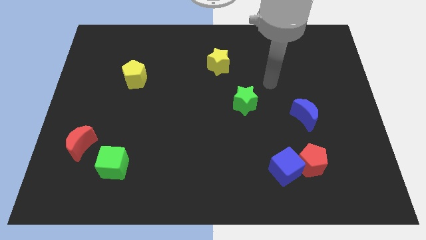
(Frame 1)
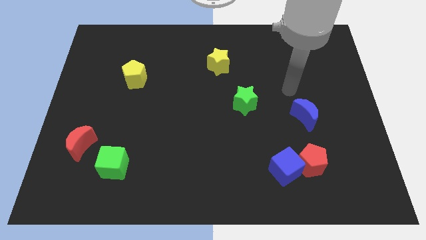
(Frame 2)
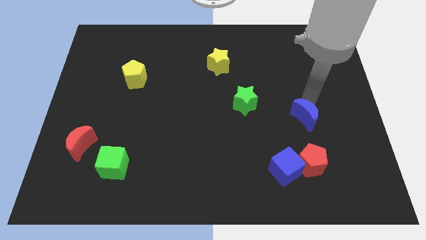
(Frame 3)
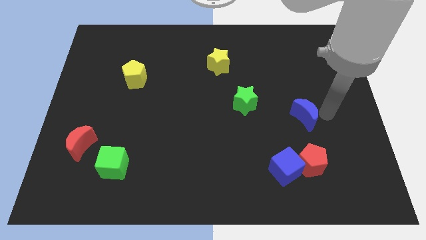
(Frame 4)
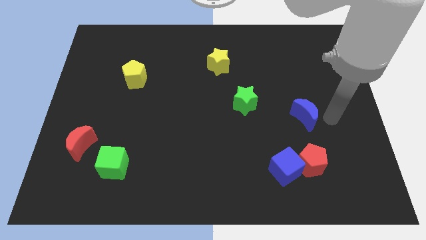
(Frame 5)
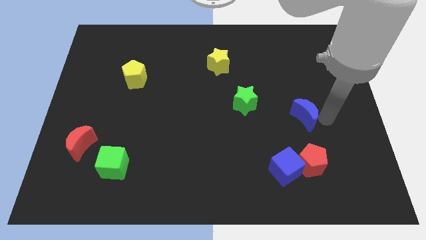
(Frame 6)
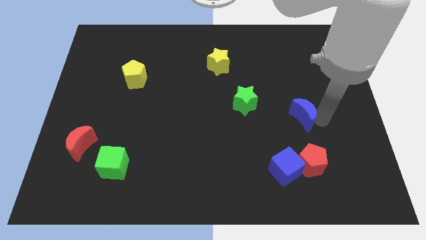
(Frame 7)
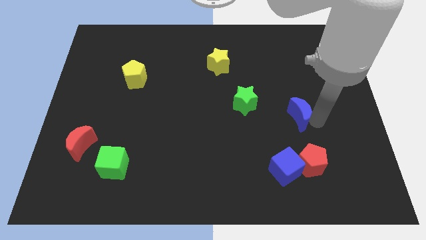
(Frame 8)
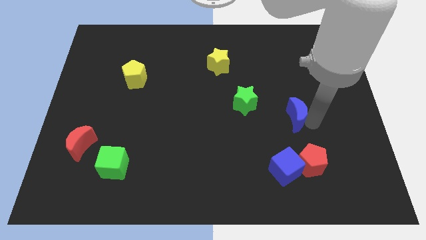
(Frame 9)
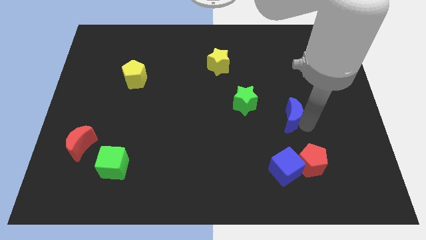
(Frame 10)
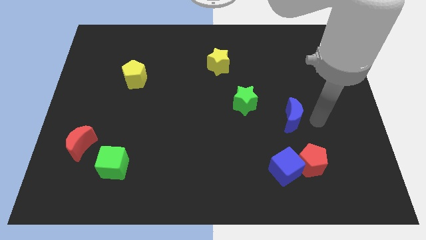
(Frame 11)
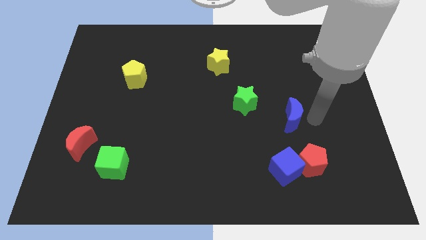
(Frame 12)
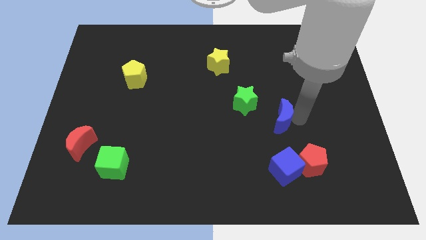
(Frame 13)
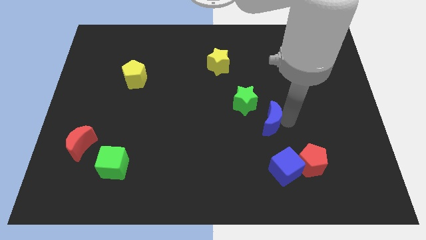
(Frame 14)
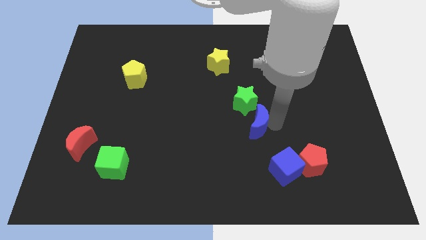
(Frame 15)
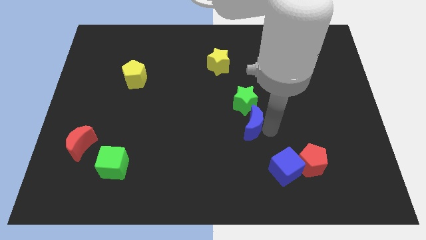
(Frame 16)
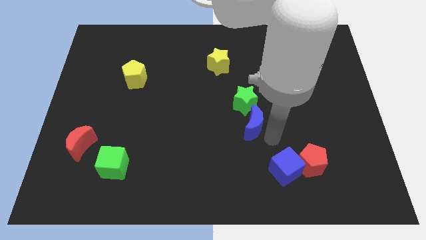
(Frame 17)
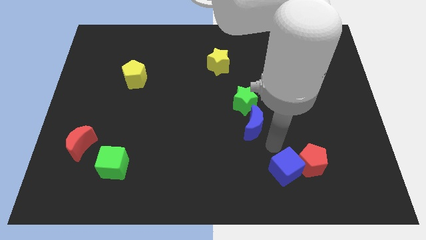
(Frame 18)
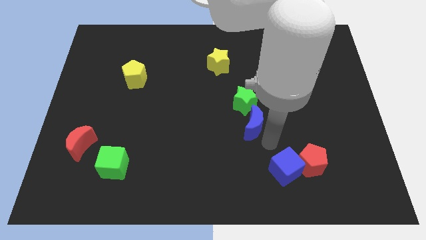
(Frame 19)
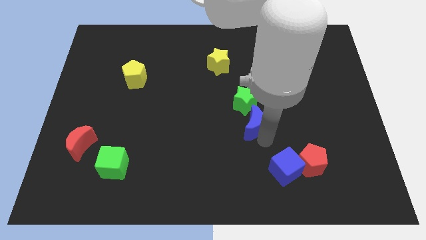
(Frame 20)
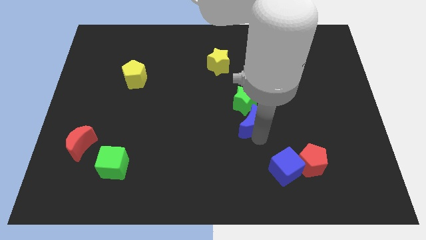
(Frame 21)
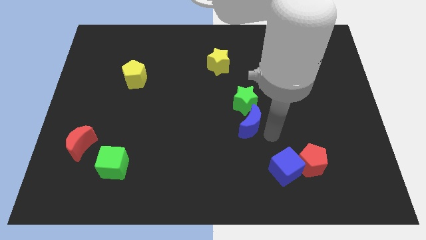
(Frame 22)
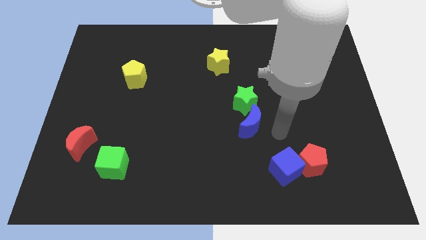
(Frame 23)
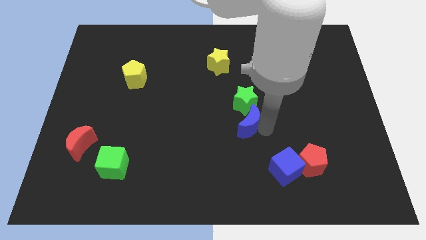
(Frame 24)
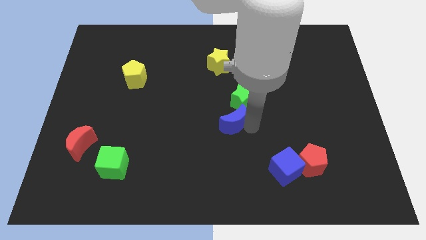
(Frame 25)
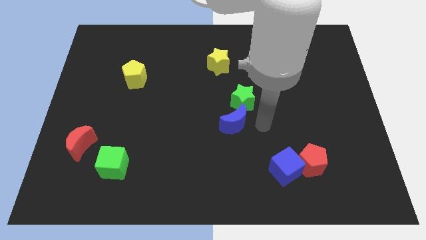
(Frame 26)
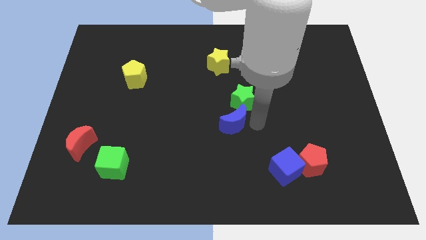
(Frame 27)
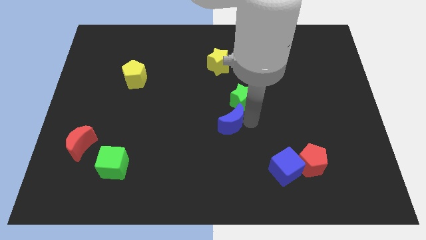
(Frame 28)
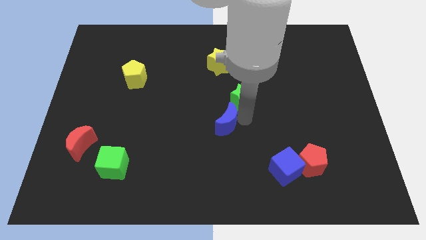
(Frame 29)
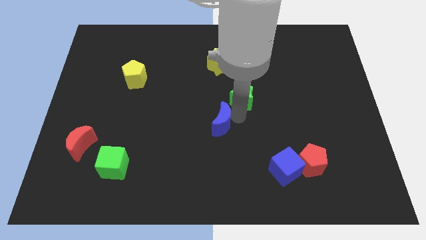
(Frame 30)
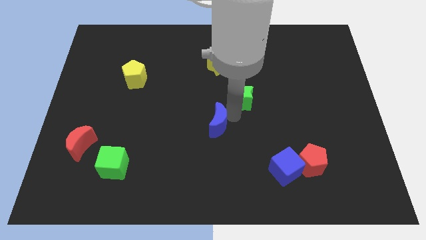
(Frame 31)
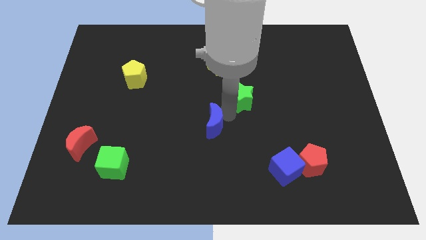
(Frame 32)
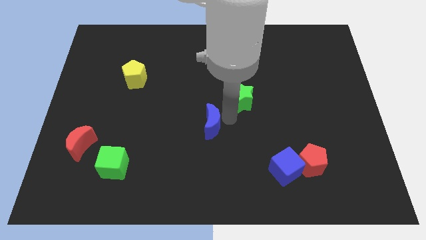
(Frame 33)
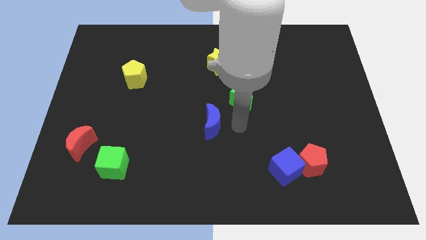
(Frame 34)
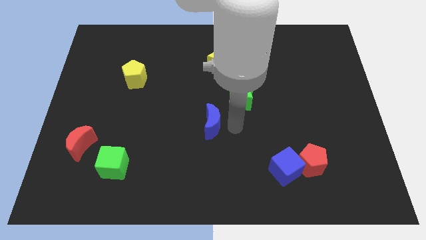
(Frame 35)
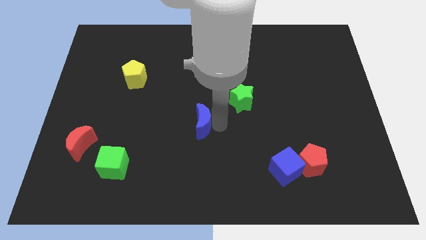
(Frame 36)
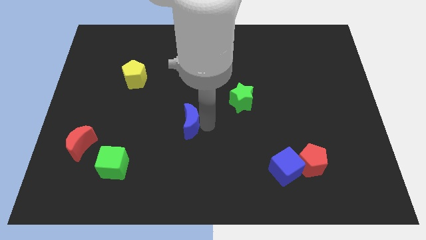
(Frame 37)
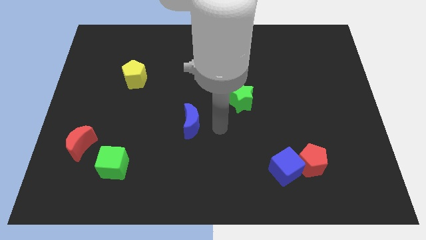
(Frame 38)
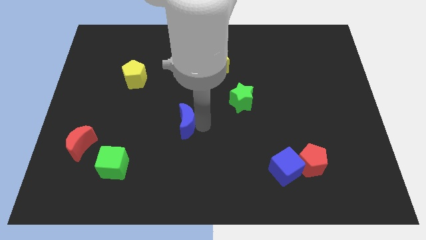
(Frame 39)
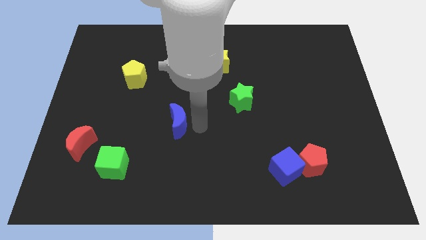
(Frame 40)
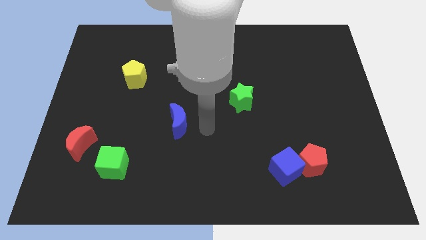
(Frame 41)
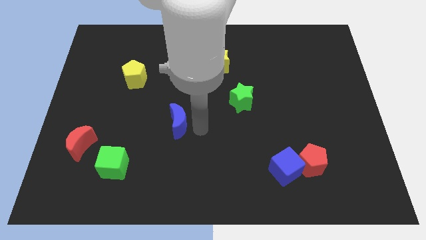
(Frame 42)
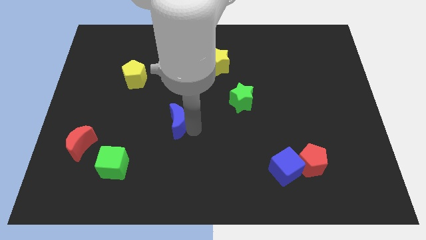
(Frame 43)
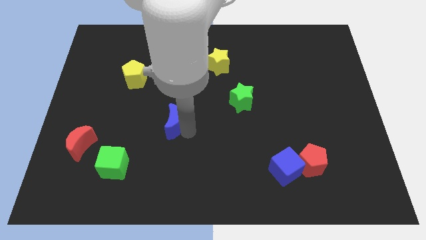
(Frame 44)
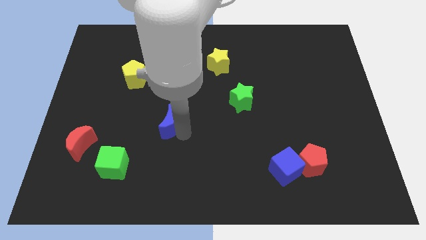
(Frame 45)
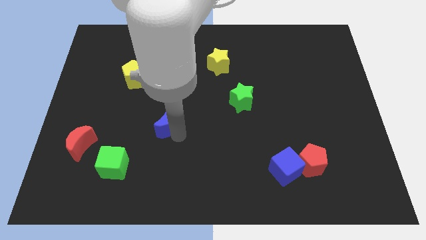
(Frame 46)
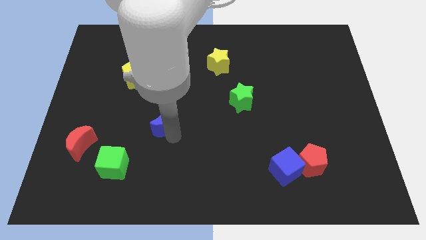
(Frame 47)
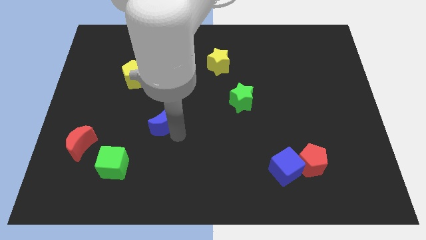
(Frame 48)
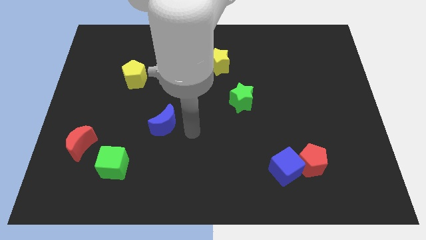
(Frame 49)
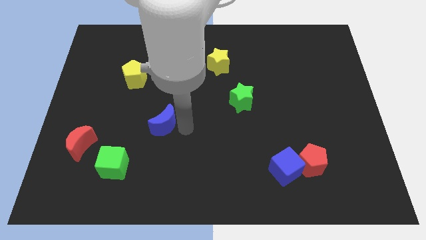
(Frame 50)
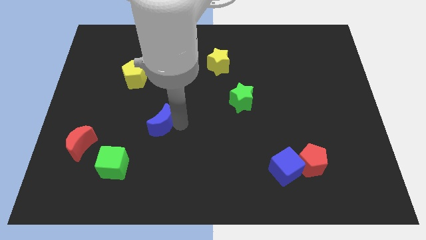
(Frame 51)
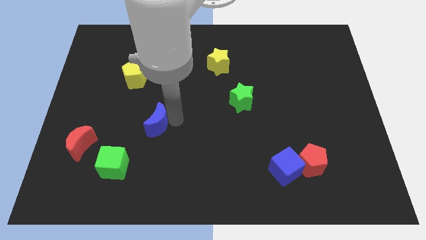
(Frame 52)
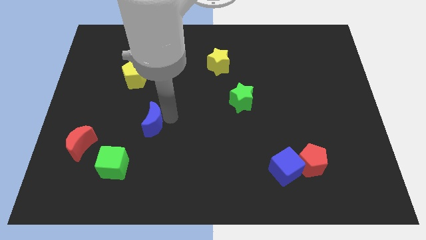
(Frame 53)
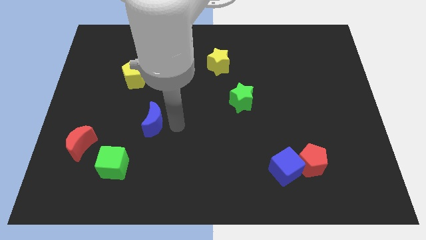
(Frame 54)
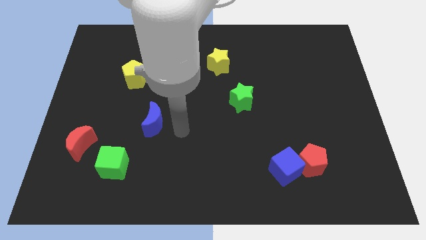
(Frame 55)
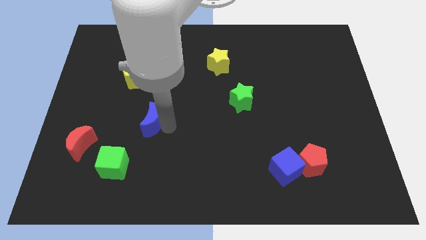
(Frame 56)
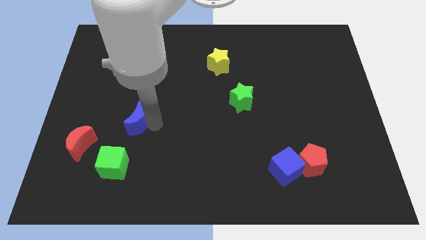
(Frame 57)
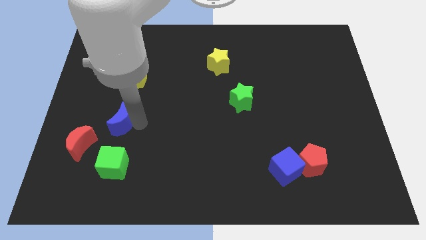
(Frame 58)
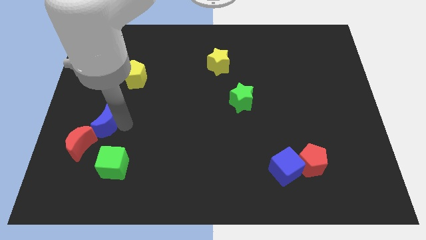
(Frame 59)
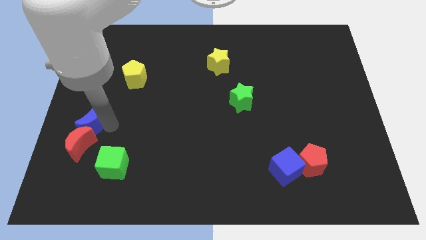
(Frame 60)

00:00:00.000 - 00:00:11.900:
slide the blue moon to the left side

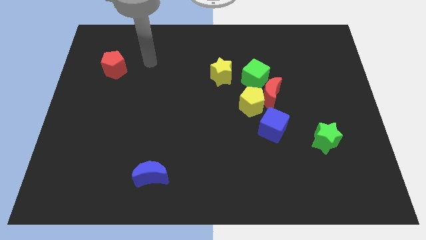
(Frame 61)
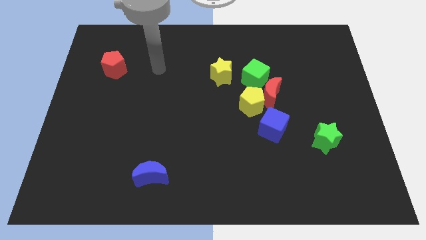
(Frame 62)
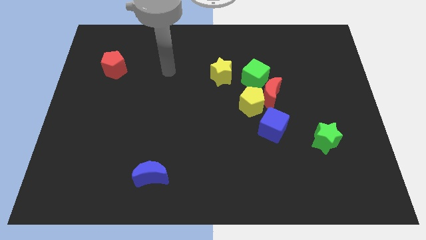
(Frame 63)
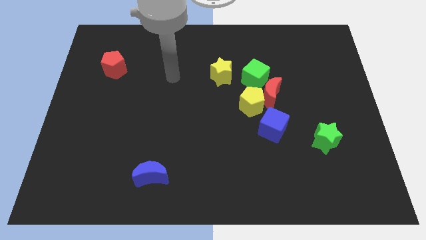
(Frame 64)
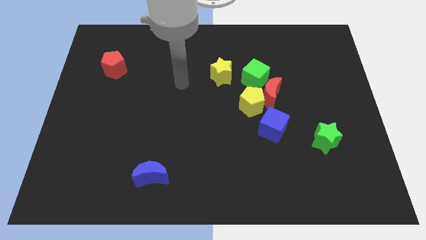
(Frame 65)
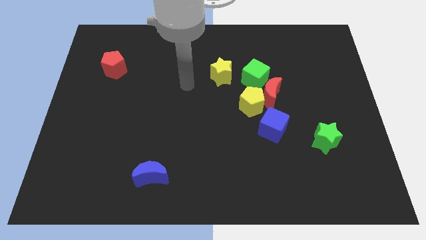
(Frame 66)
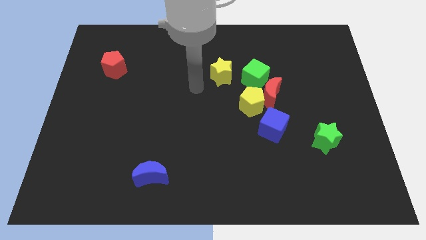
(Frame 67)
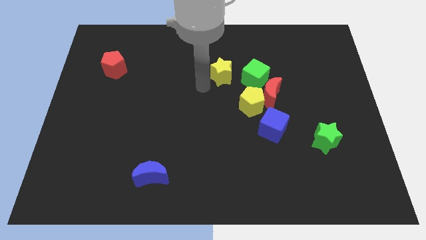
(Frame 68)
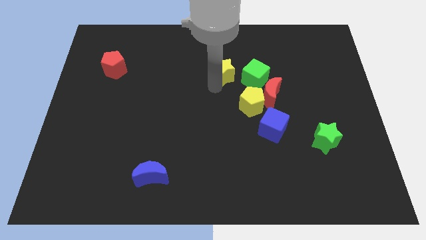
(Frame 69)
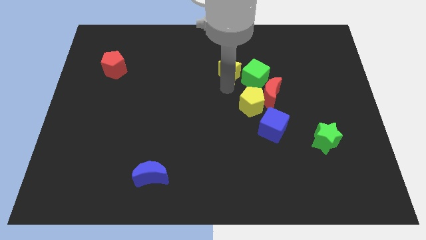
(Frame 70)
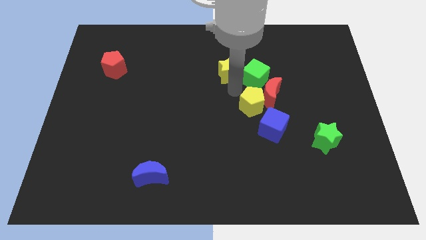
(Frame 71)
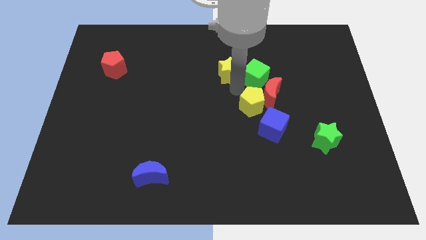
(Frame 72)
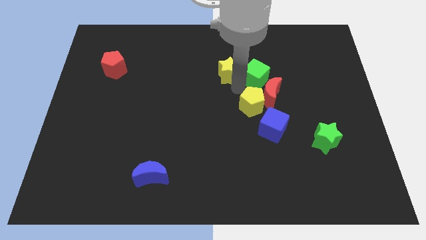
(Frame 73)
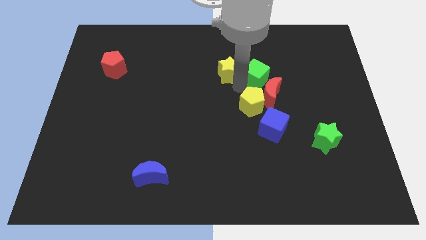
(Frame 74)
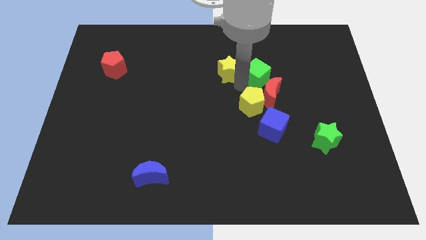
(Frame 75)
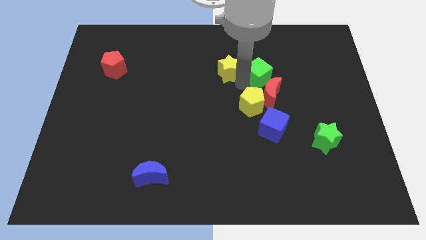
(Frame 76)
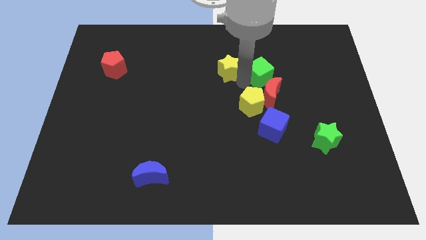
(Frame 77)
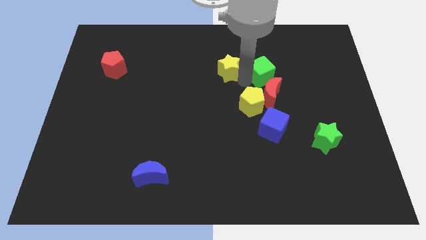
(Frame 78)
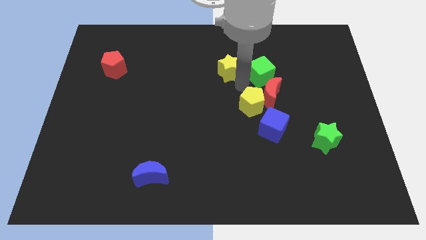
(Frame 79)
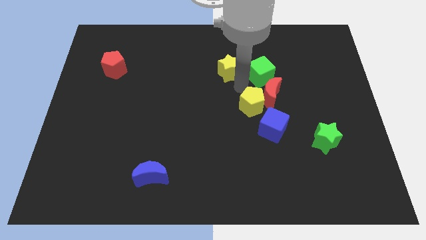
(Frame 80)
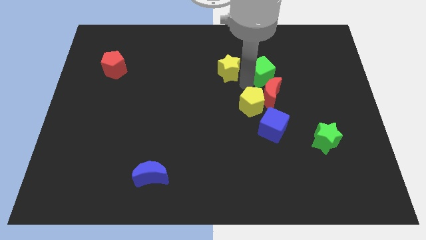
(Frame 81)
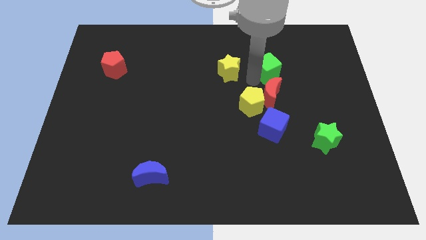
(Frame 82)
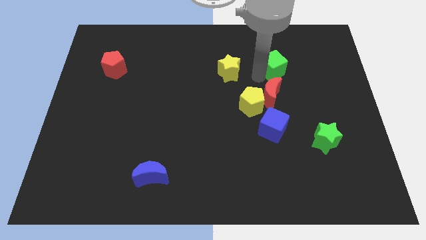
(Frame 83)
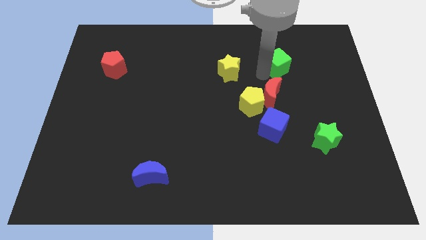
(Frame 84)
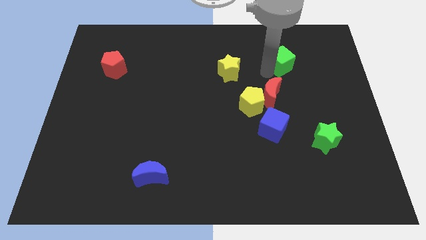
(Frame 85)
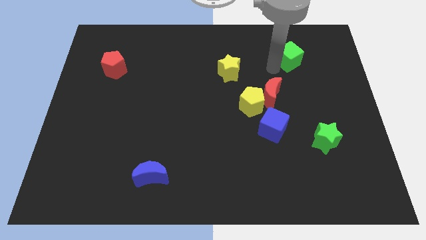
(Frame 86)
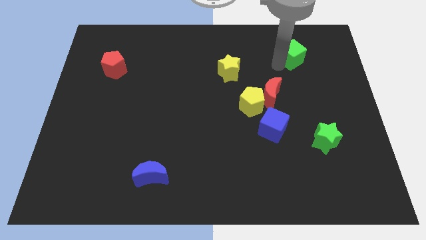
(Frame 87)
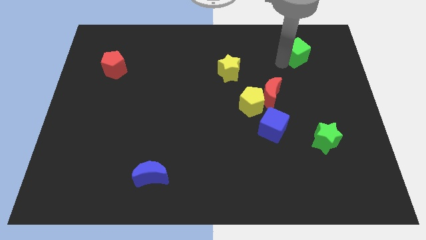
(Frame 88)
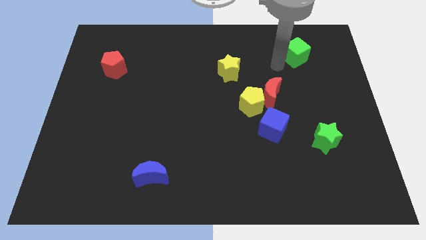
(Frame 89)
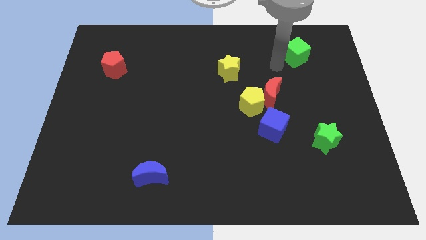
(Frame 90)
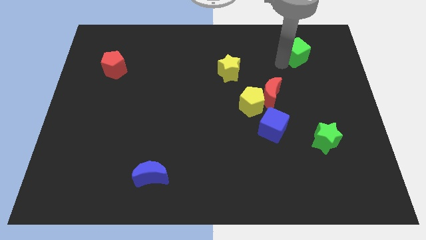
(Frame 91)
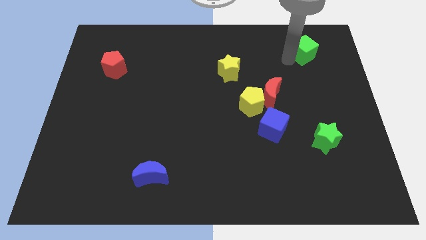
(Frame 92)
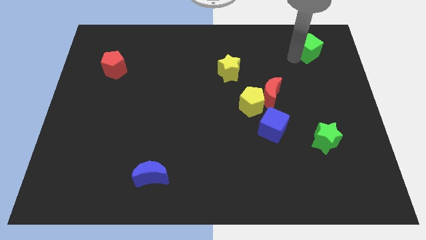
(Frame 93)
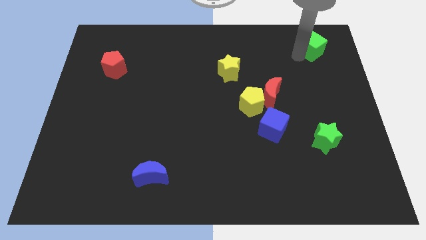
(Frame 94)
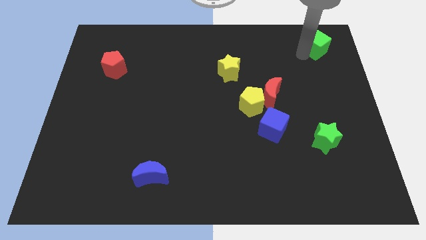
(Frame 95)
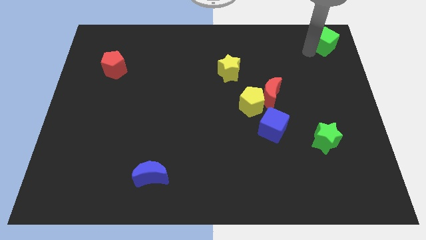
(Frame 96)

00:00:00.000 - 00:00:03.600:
put the green cube to the top right of the board
